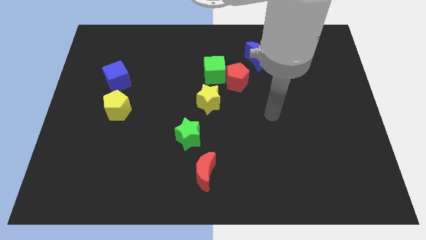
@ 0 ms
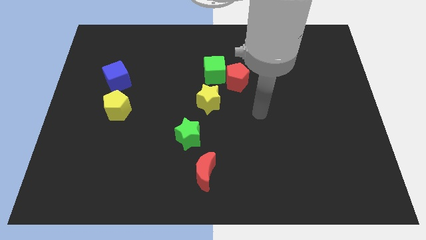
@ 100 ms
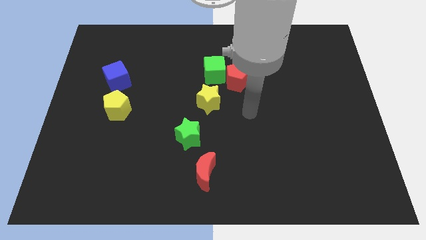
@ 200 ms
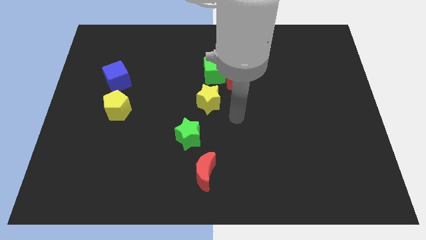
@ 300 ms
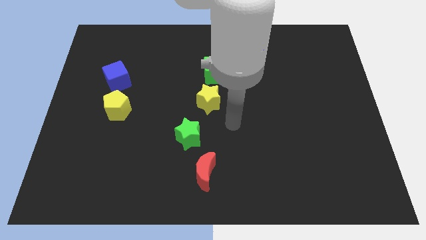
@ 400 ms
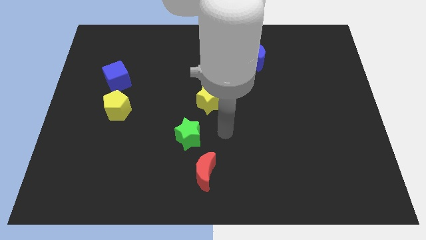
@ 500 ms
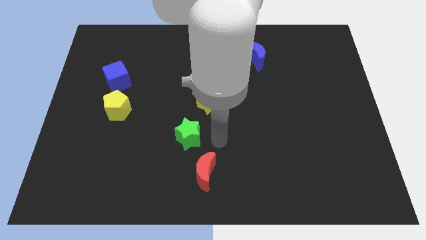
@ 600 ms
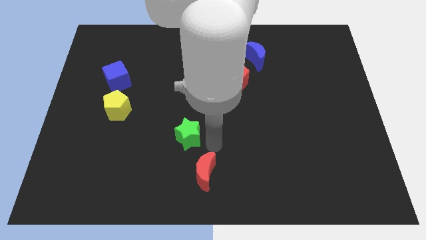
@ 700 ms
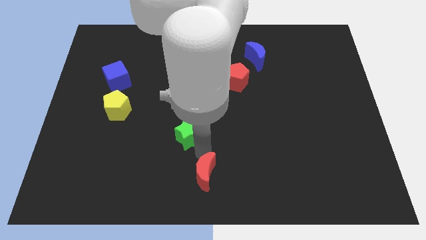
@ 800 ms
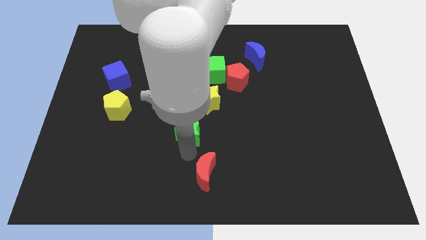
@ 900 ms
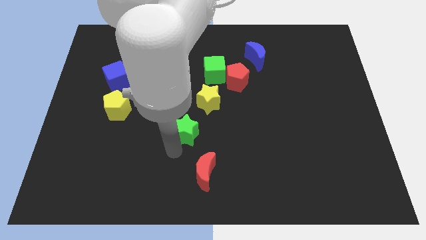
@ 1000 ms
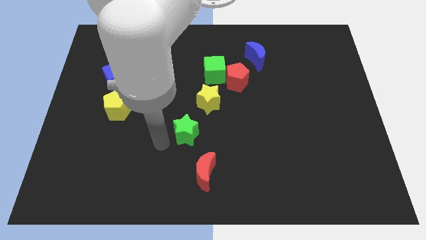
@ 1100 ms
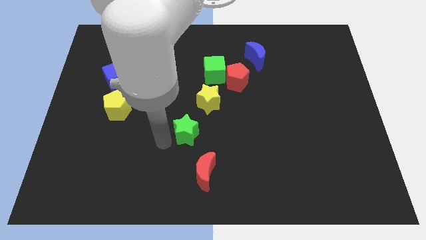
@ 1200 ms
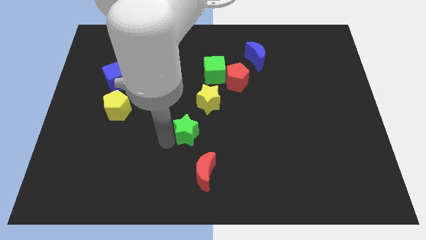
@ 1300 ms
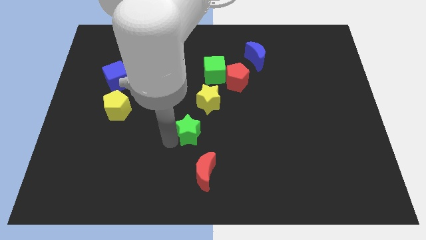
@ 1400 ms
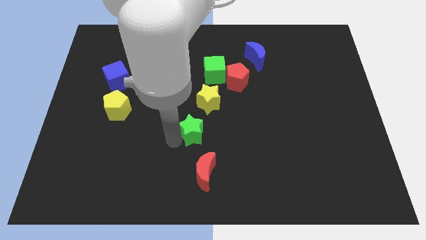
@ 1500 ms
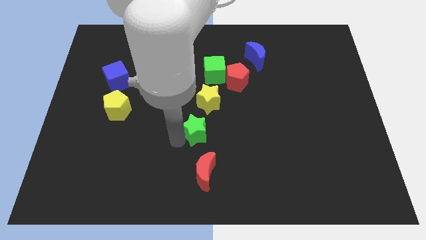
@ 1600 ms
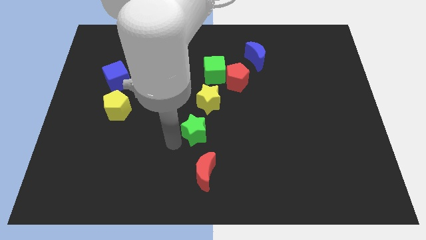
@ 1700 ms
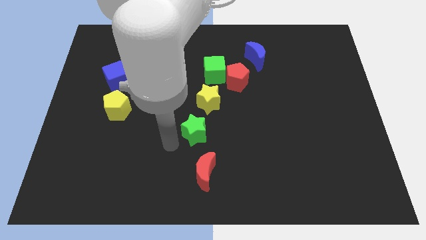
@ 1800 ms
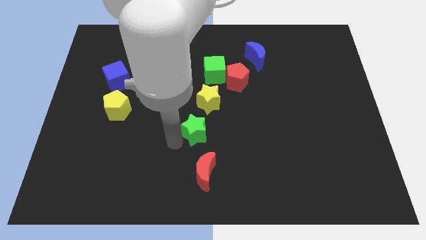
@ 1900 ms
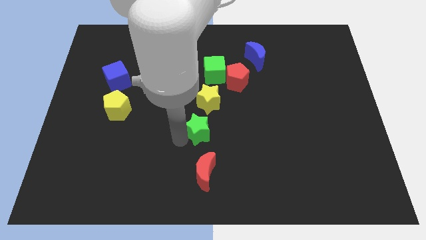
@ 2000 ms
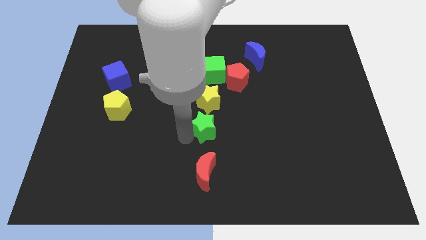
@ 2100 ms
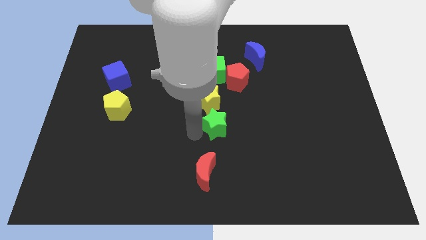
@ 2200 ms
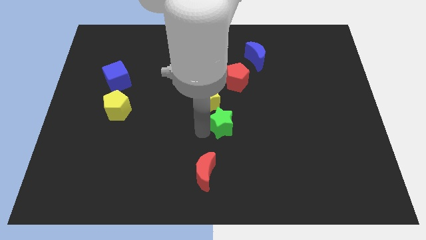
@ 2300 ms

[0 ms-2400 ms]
push the green star a bit diagonally upwards and right

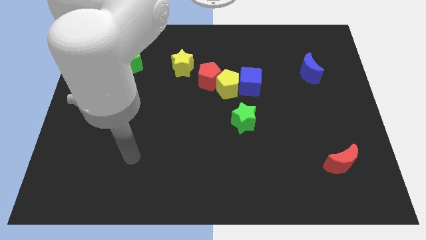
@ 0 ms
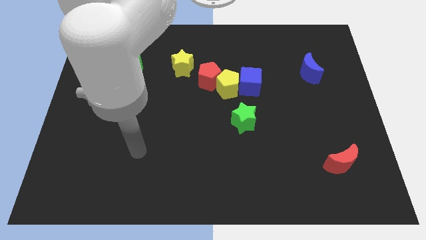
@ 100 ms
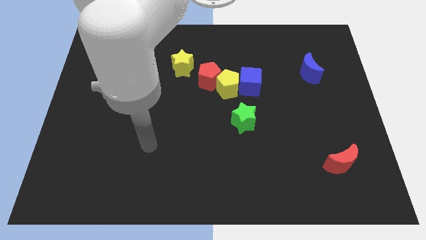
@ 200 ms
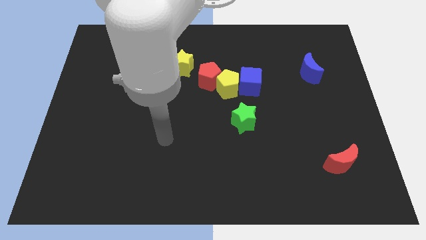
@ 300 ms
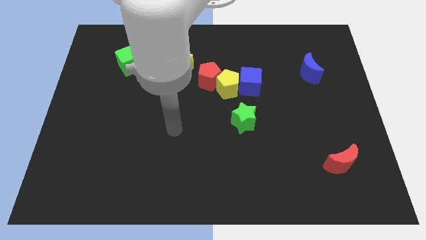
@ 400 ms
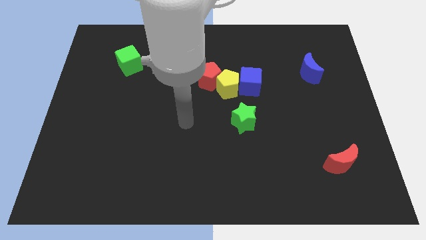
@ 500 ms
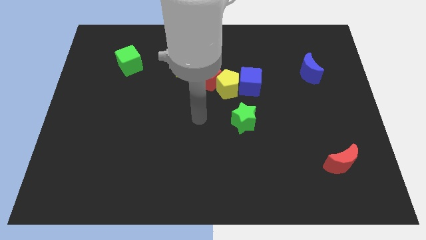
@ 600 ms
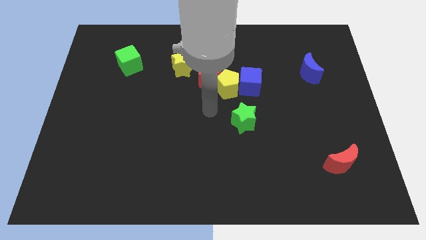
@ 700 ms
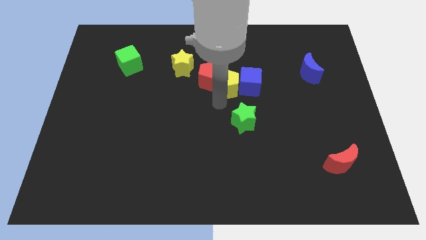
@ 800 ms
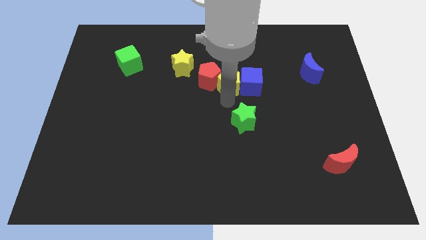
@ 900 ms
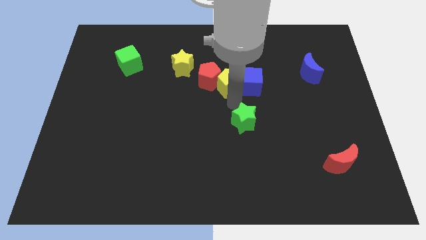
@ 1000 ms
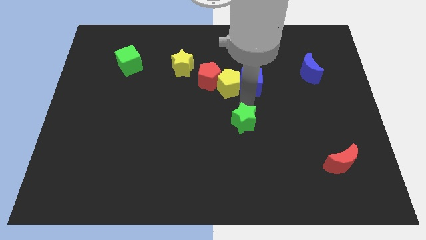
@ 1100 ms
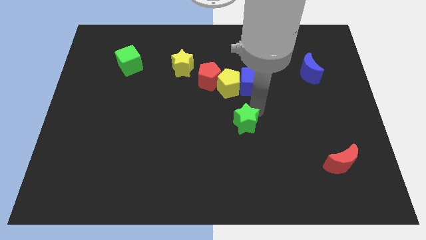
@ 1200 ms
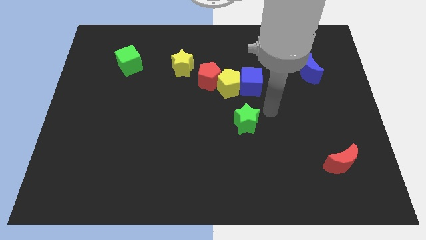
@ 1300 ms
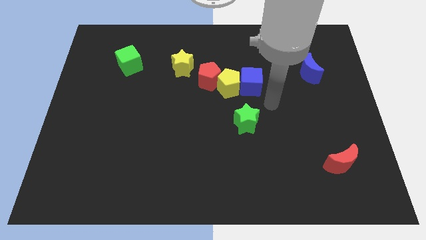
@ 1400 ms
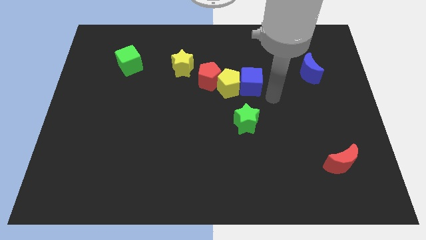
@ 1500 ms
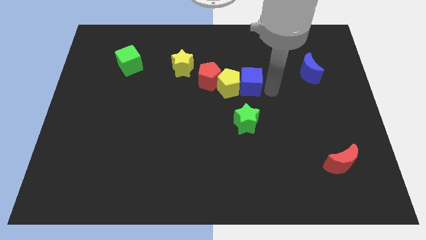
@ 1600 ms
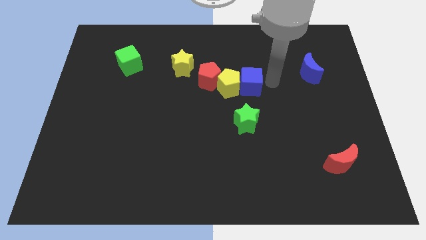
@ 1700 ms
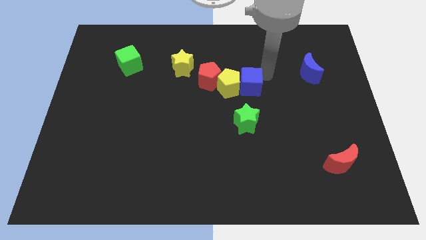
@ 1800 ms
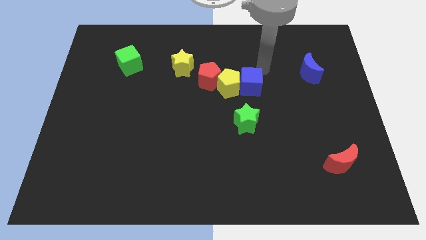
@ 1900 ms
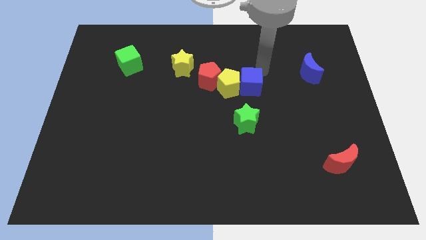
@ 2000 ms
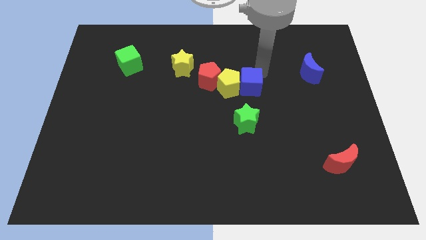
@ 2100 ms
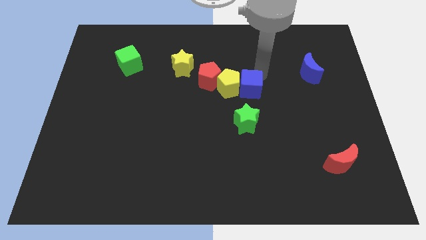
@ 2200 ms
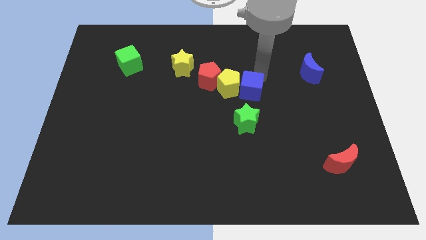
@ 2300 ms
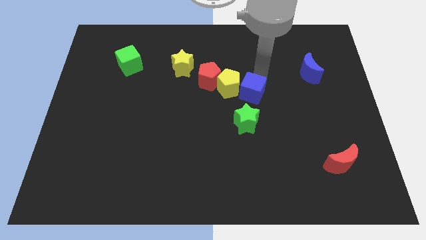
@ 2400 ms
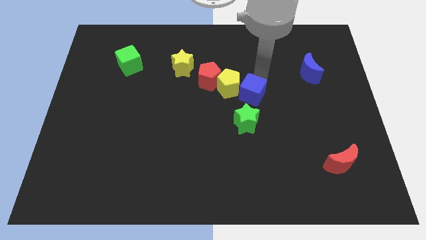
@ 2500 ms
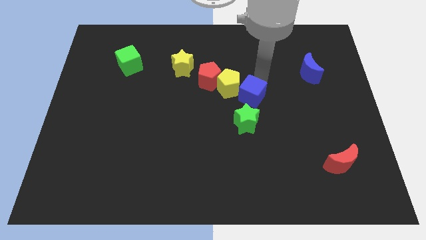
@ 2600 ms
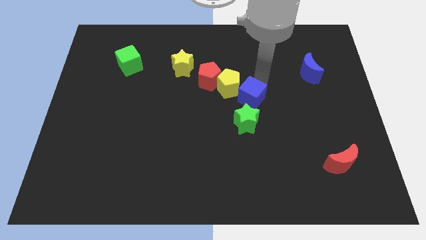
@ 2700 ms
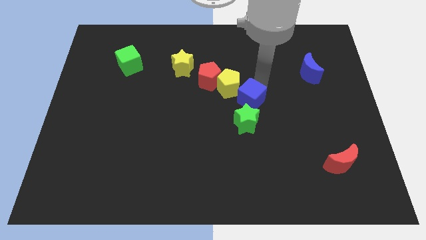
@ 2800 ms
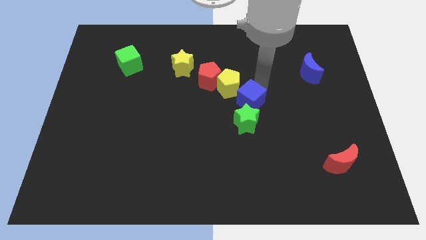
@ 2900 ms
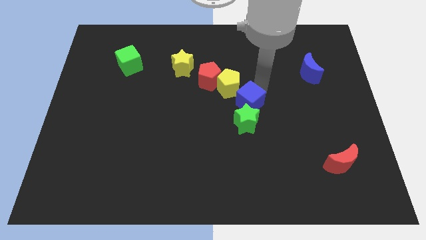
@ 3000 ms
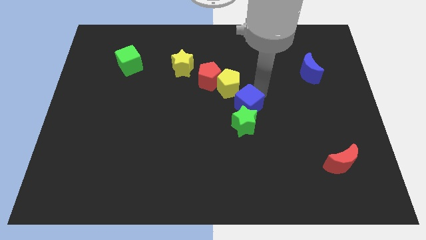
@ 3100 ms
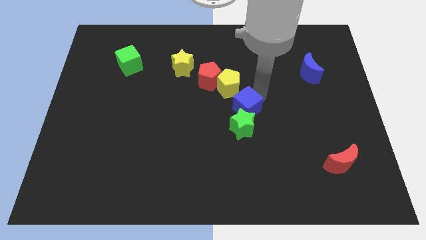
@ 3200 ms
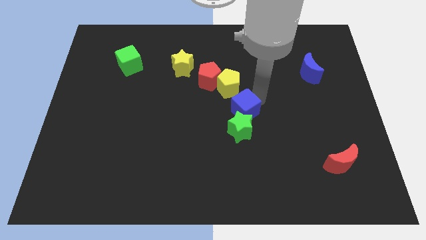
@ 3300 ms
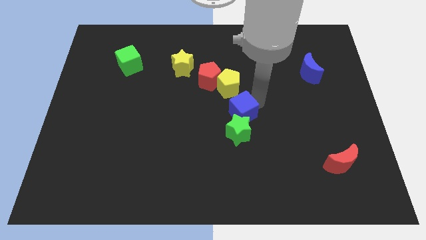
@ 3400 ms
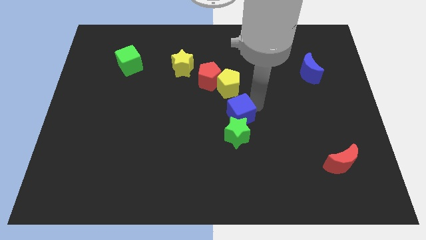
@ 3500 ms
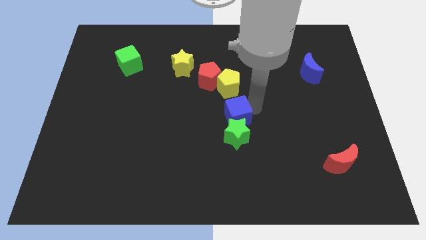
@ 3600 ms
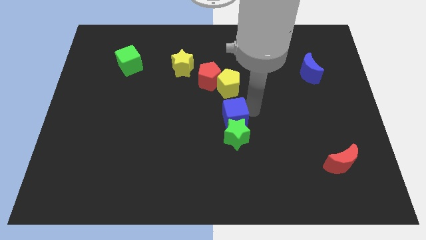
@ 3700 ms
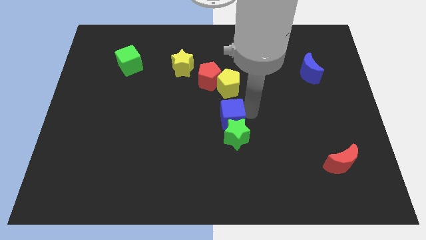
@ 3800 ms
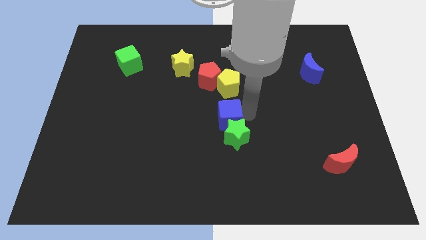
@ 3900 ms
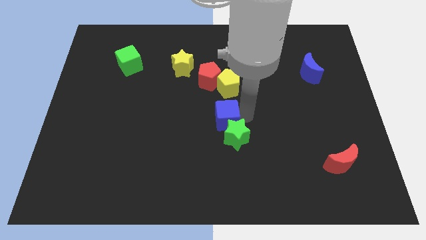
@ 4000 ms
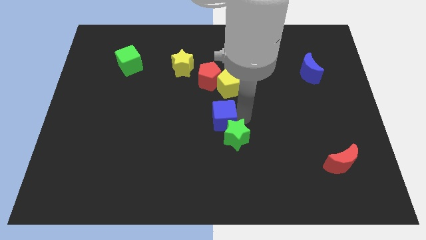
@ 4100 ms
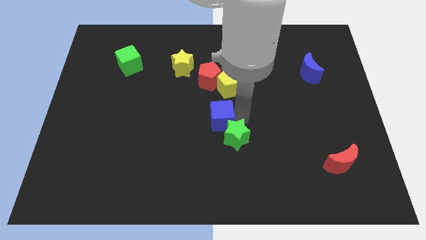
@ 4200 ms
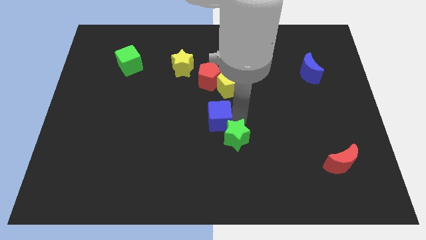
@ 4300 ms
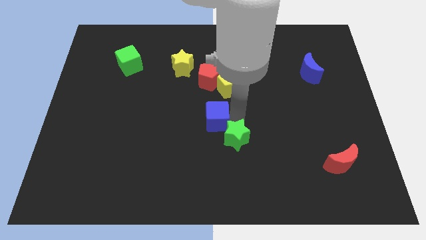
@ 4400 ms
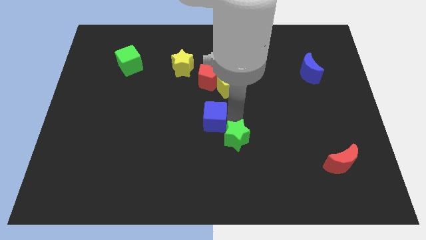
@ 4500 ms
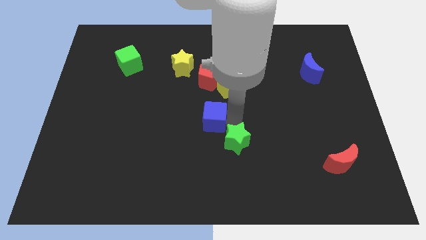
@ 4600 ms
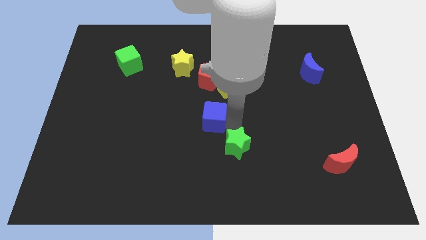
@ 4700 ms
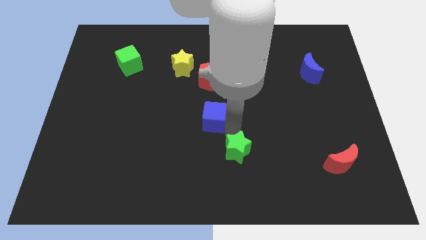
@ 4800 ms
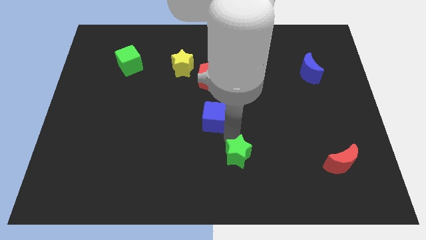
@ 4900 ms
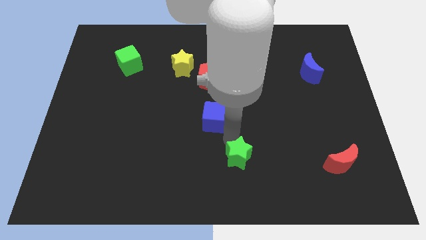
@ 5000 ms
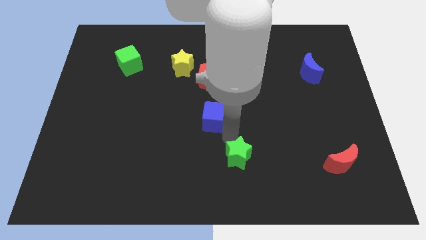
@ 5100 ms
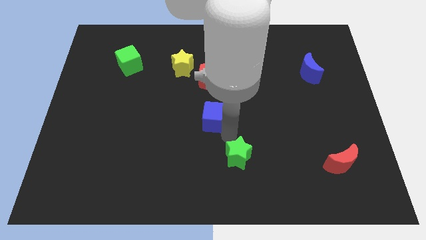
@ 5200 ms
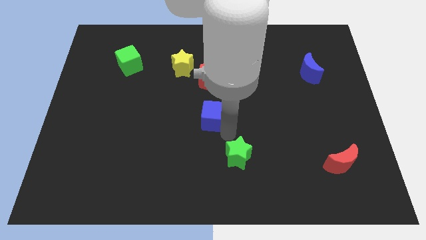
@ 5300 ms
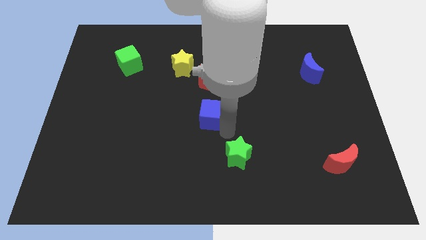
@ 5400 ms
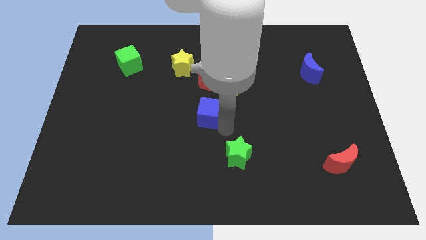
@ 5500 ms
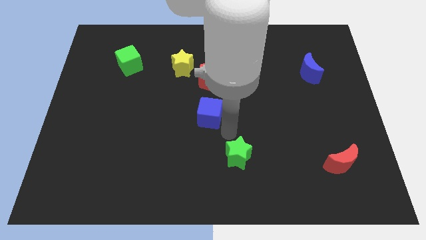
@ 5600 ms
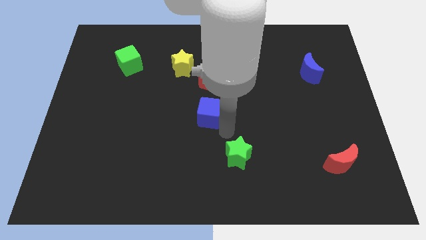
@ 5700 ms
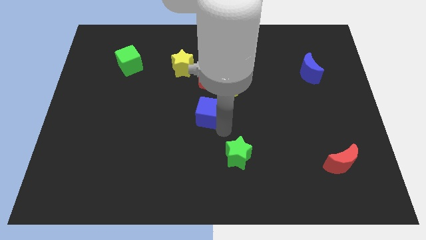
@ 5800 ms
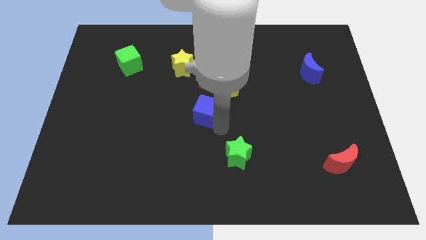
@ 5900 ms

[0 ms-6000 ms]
slightly push the blue cube left
